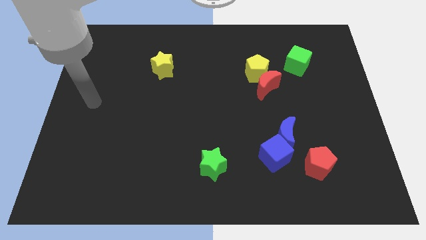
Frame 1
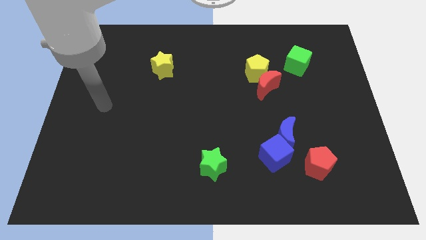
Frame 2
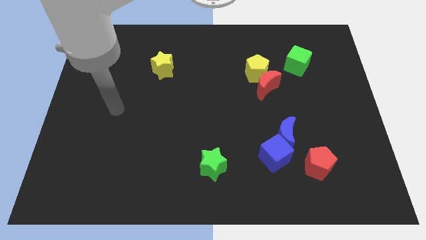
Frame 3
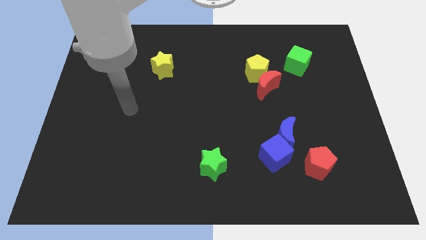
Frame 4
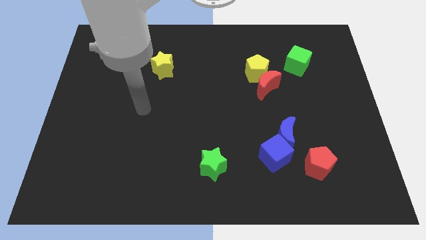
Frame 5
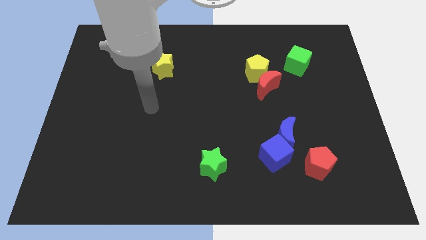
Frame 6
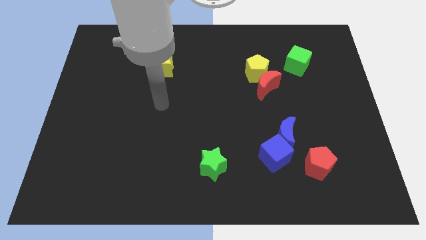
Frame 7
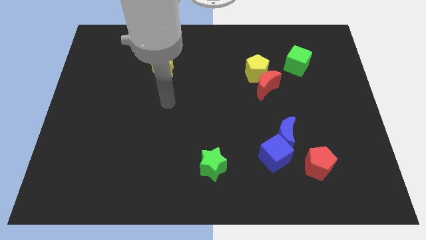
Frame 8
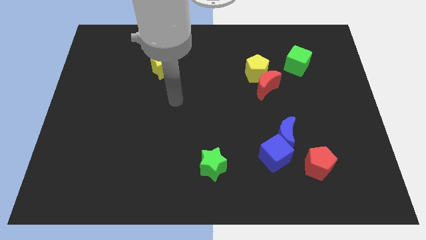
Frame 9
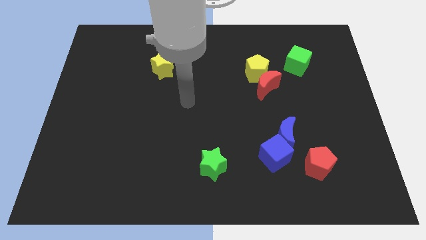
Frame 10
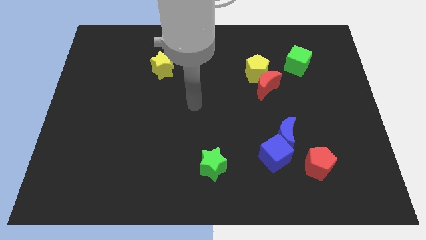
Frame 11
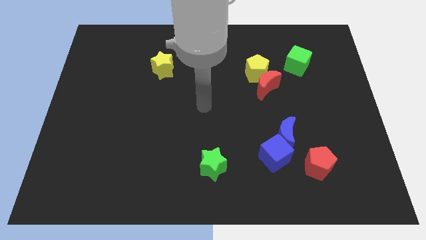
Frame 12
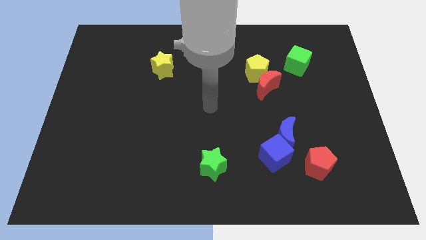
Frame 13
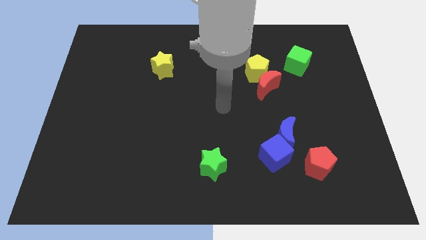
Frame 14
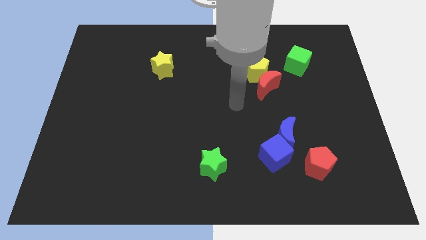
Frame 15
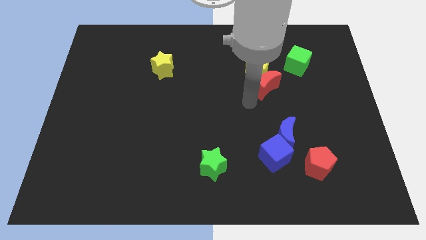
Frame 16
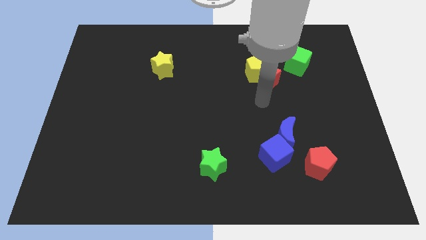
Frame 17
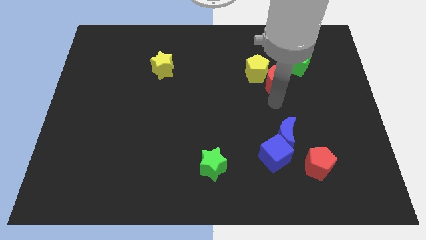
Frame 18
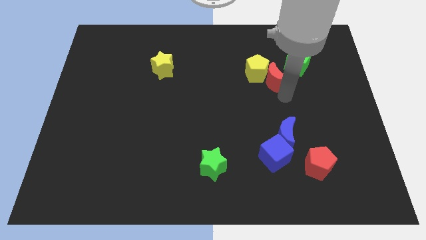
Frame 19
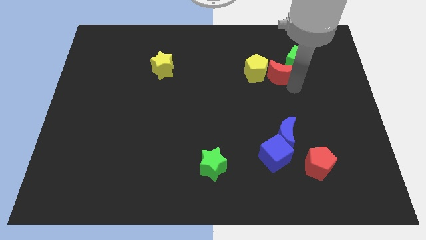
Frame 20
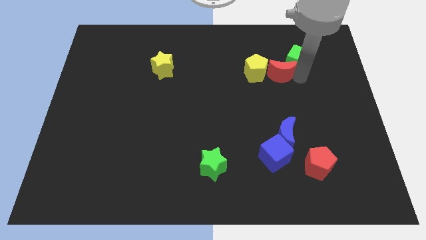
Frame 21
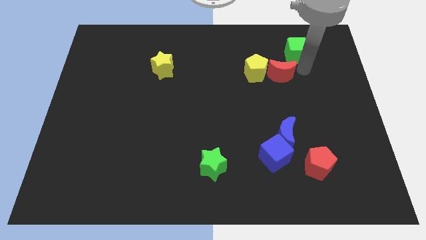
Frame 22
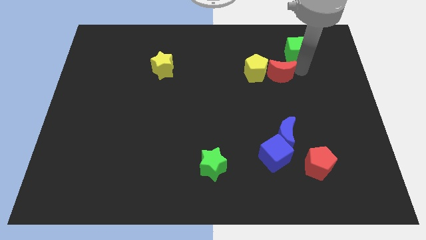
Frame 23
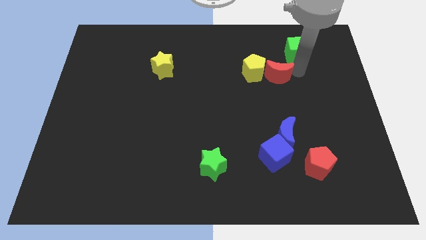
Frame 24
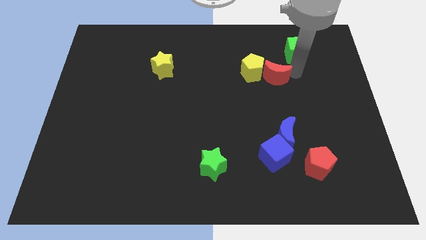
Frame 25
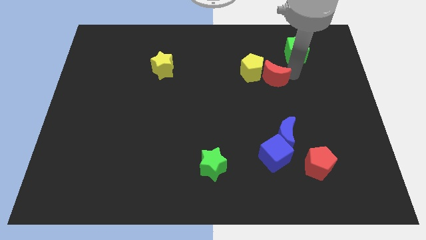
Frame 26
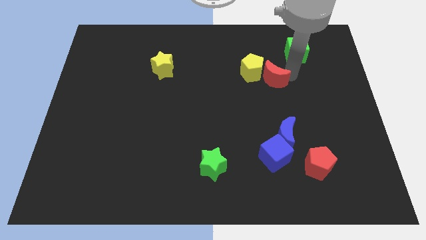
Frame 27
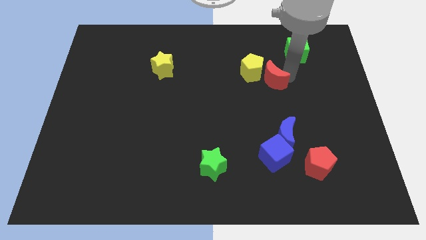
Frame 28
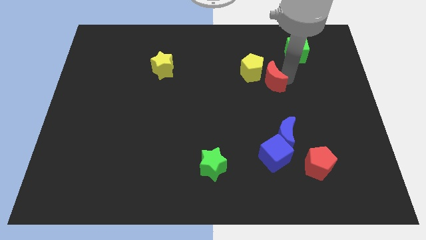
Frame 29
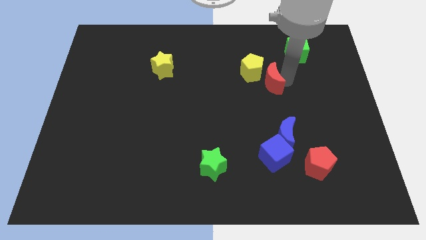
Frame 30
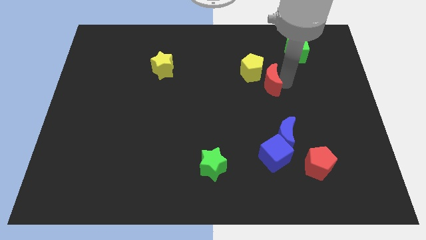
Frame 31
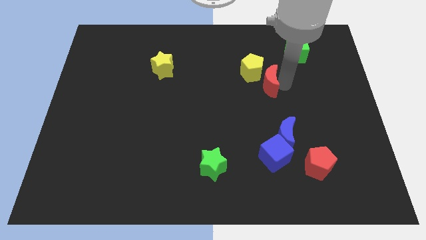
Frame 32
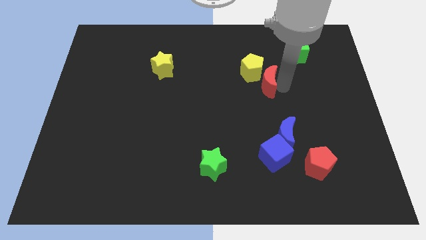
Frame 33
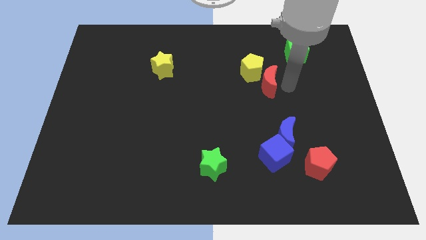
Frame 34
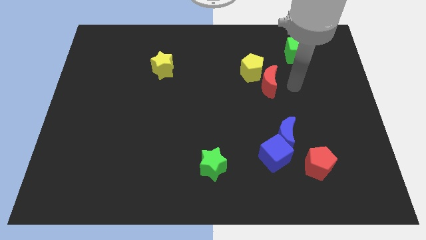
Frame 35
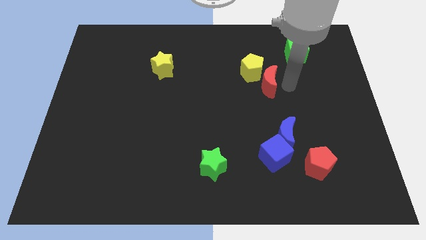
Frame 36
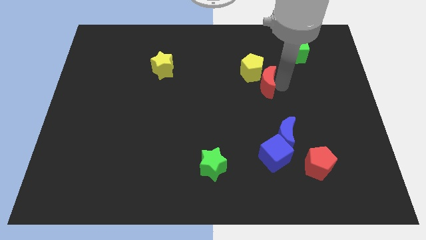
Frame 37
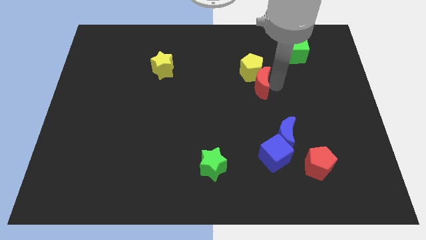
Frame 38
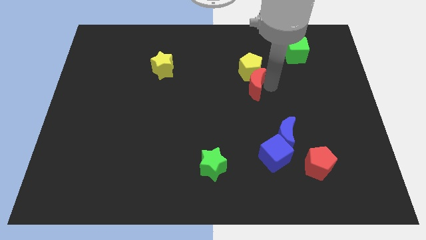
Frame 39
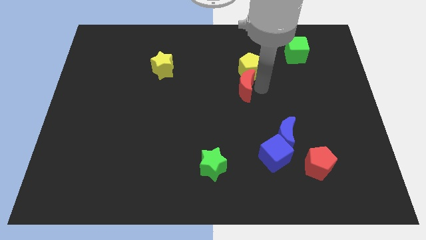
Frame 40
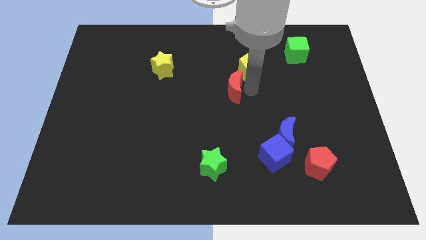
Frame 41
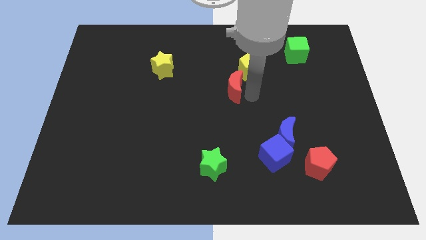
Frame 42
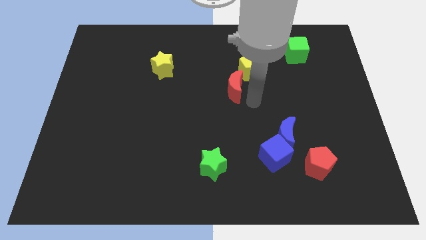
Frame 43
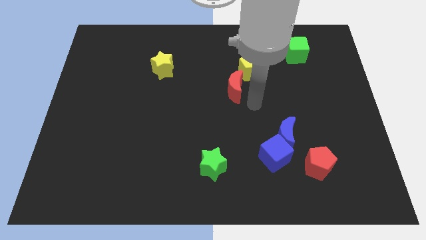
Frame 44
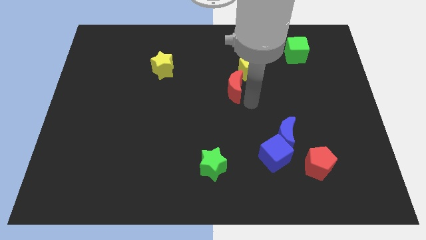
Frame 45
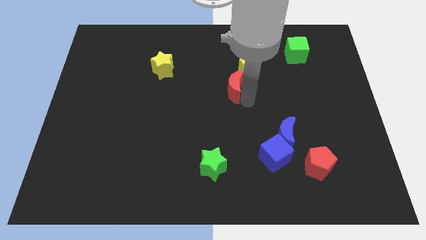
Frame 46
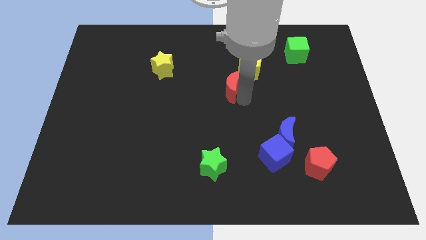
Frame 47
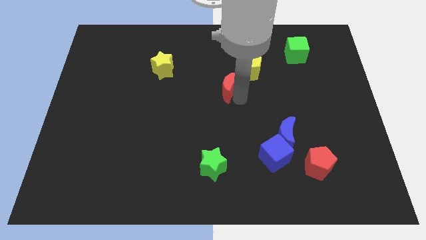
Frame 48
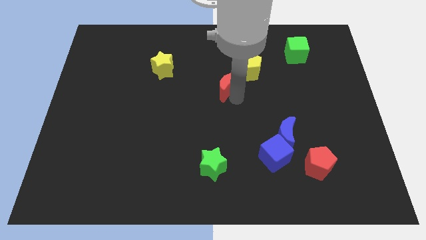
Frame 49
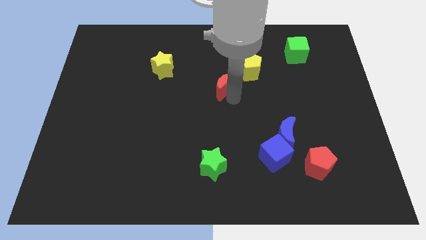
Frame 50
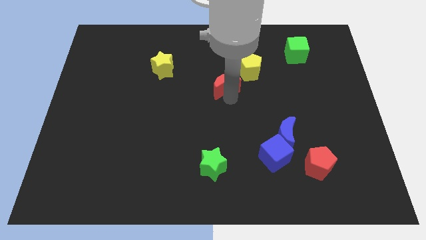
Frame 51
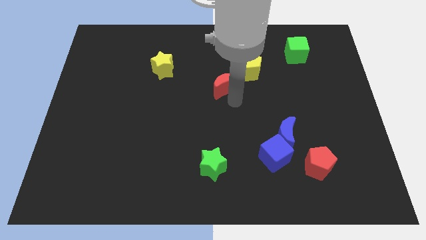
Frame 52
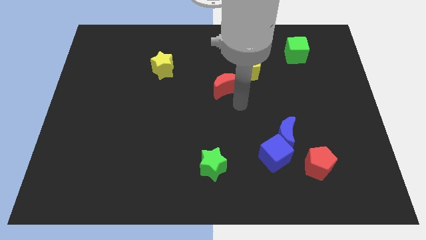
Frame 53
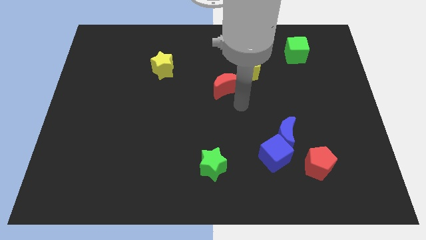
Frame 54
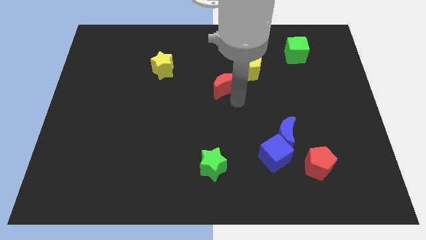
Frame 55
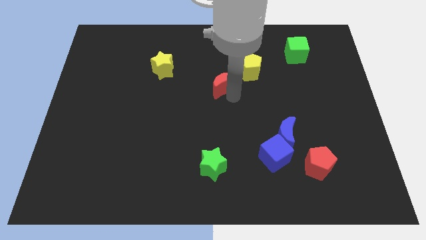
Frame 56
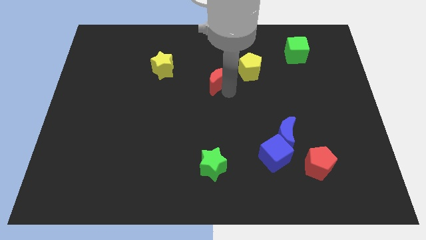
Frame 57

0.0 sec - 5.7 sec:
put the red moon to the left side of the yellow pentagon

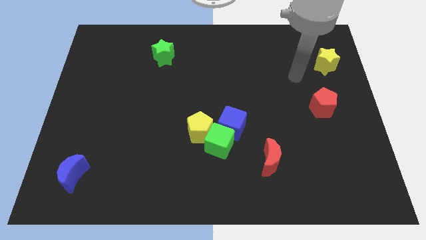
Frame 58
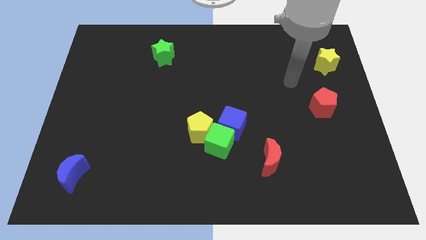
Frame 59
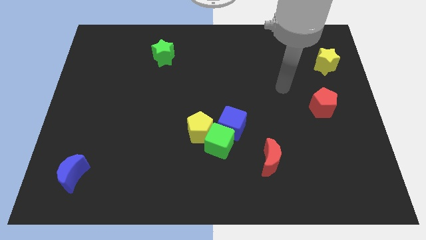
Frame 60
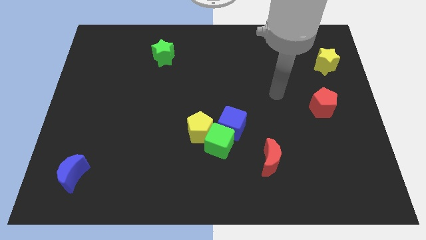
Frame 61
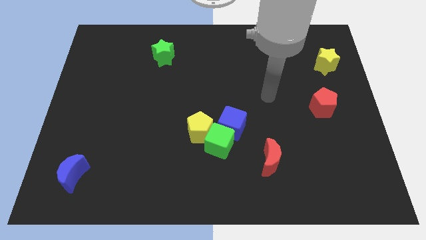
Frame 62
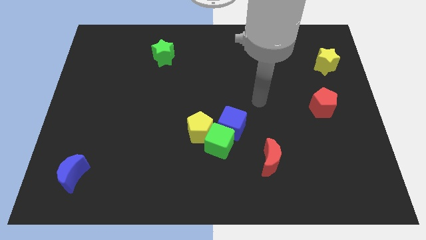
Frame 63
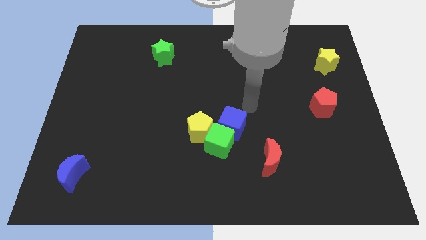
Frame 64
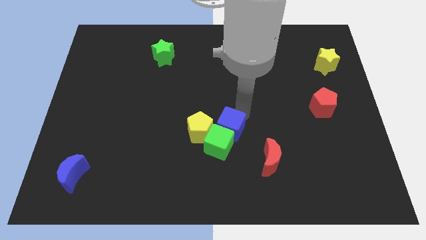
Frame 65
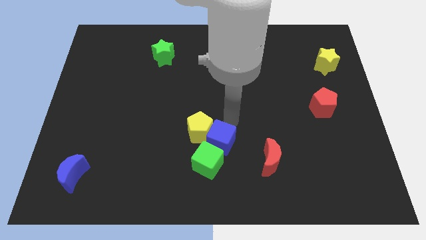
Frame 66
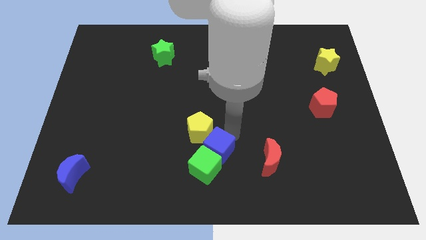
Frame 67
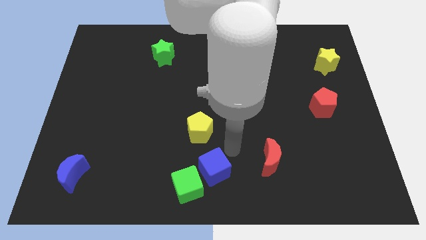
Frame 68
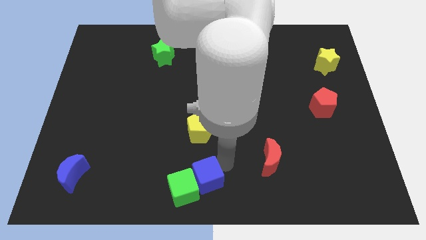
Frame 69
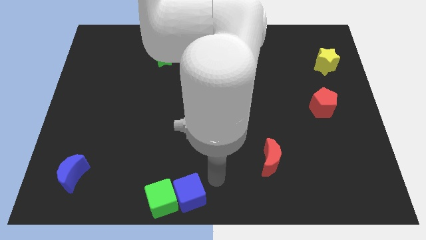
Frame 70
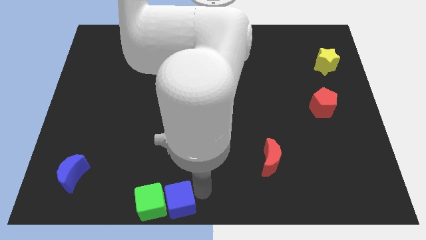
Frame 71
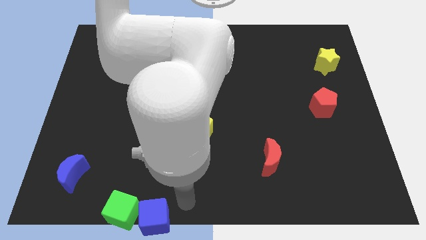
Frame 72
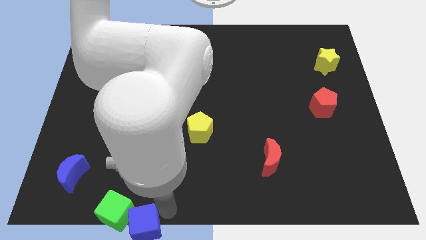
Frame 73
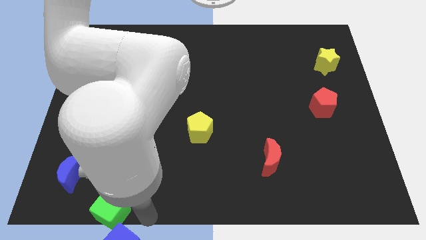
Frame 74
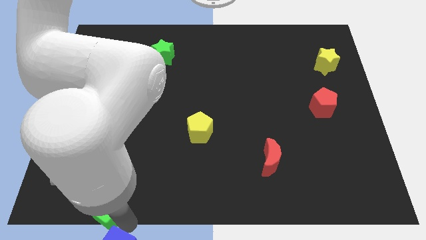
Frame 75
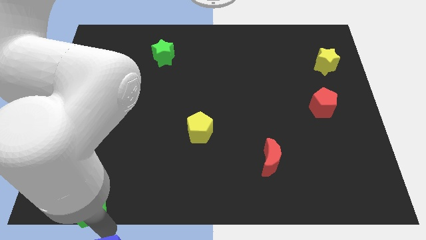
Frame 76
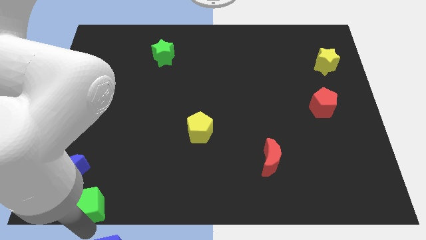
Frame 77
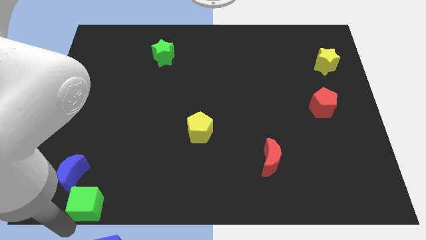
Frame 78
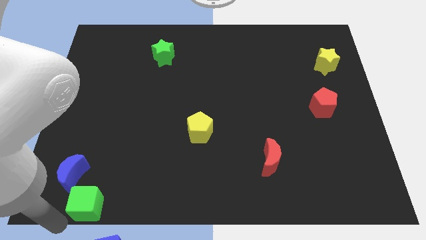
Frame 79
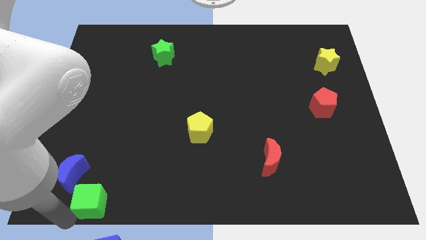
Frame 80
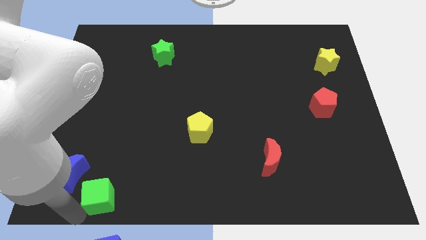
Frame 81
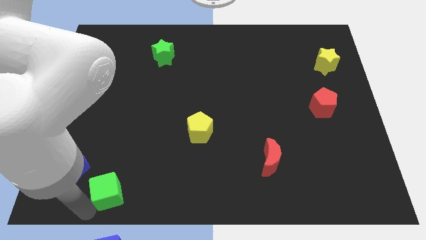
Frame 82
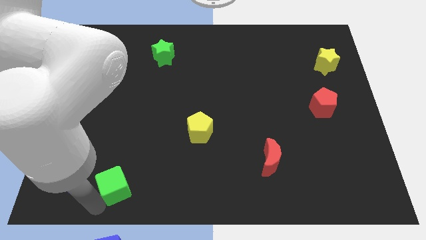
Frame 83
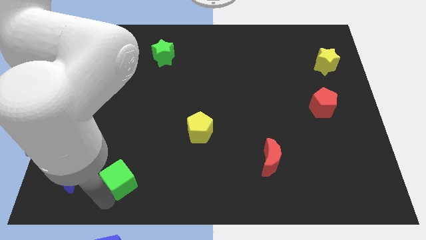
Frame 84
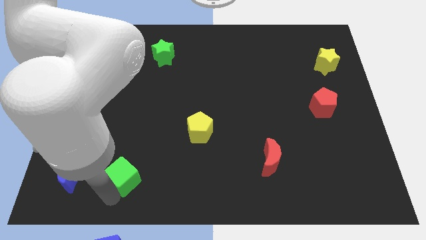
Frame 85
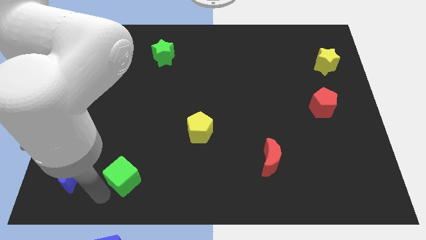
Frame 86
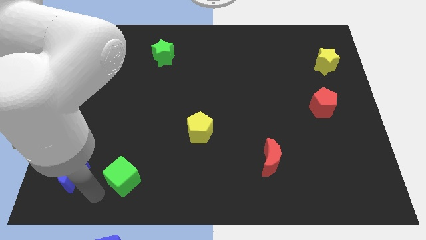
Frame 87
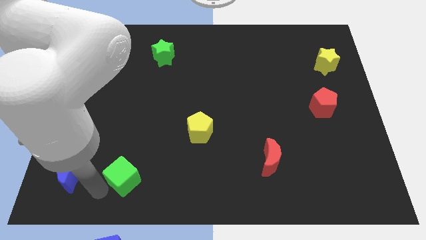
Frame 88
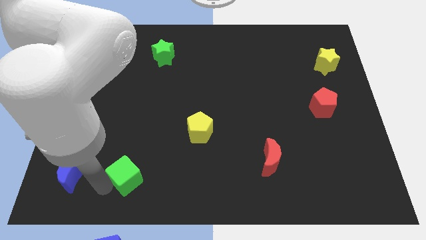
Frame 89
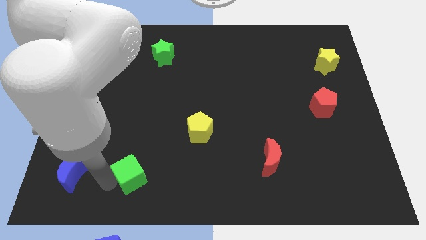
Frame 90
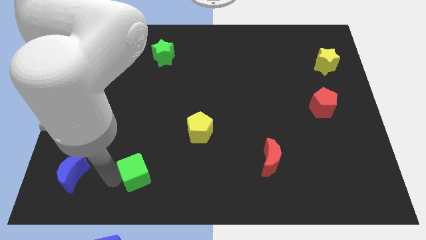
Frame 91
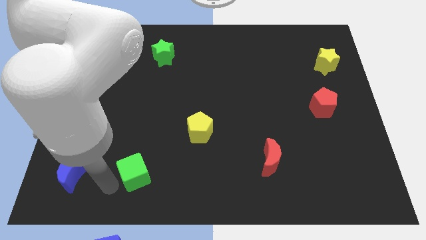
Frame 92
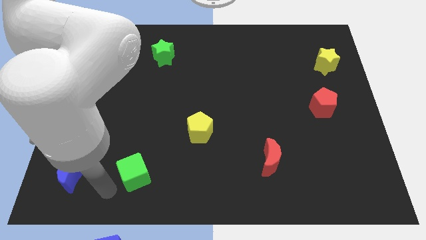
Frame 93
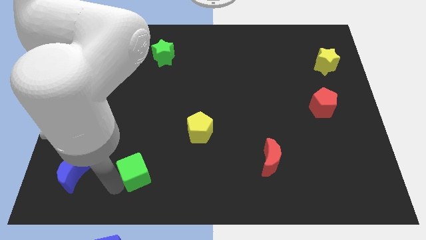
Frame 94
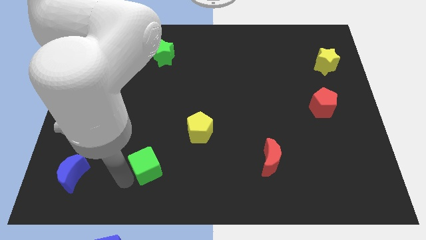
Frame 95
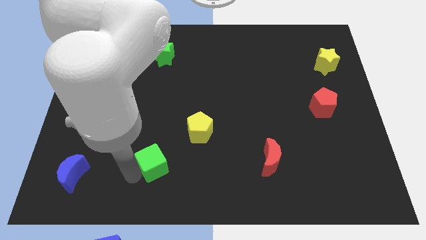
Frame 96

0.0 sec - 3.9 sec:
put the green cube to the bottom left side of the yellow pentagon
